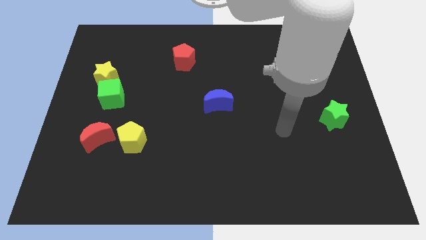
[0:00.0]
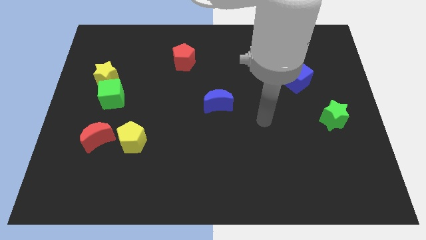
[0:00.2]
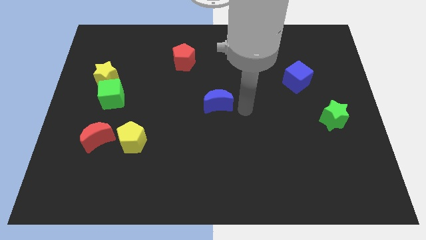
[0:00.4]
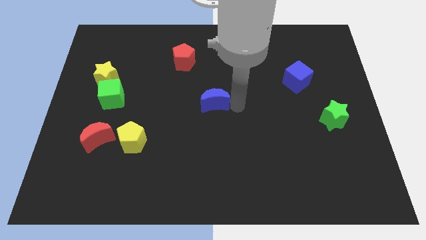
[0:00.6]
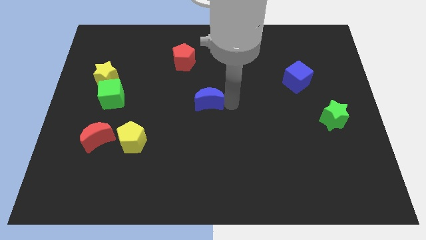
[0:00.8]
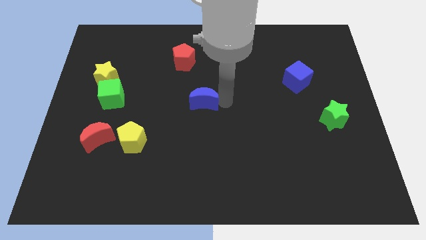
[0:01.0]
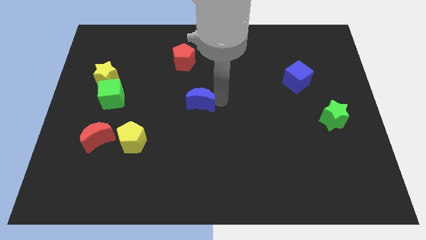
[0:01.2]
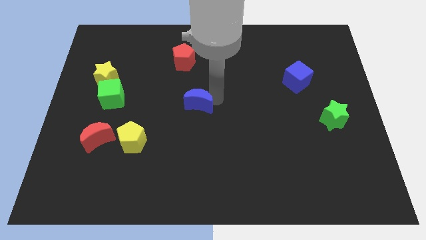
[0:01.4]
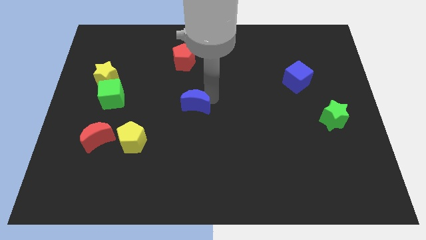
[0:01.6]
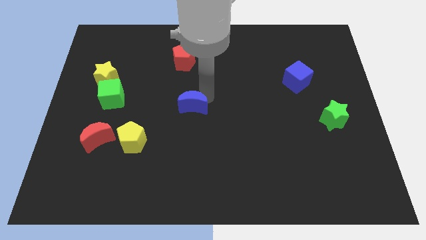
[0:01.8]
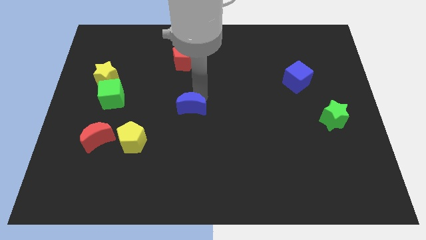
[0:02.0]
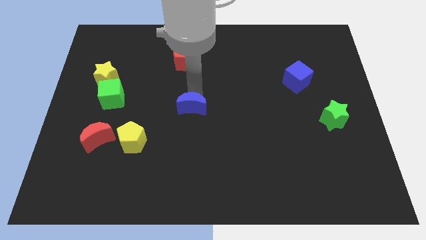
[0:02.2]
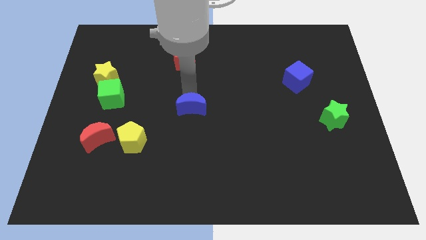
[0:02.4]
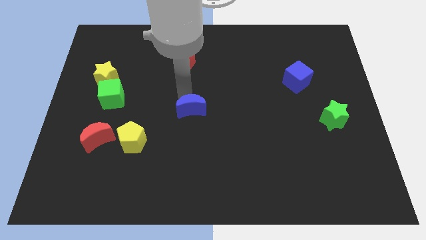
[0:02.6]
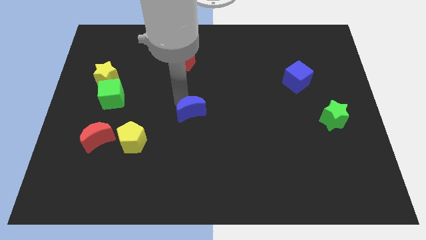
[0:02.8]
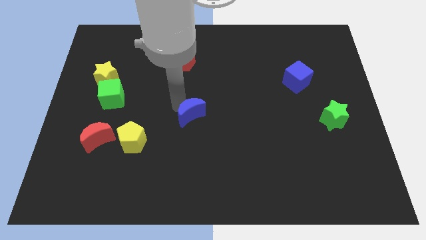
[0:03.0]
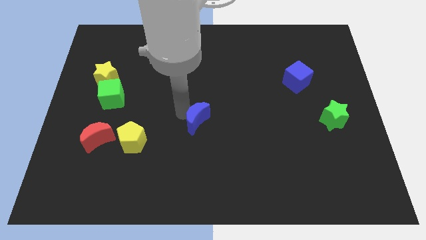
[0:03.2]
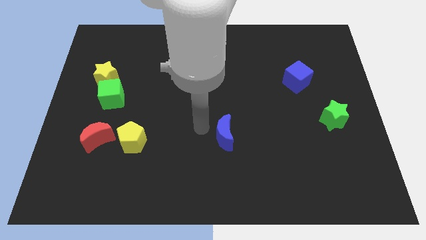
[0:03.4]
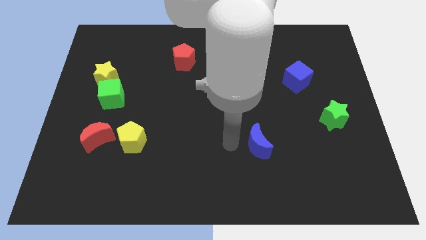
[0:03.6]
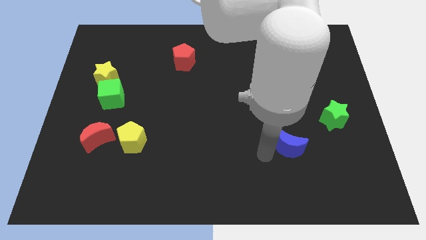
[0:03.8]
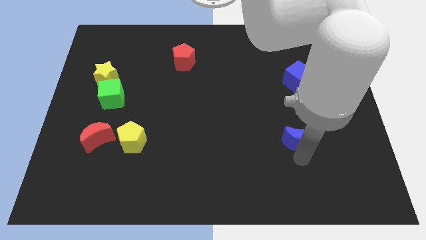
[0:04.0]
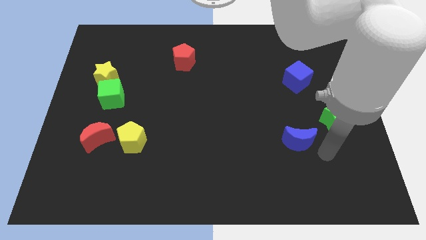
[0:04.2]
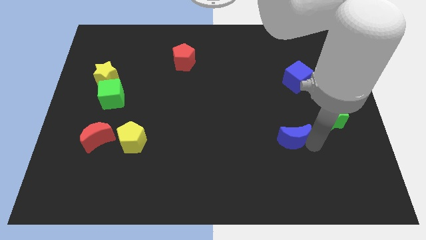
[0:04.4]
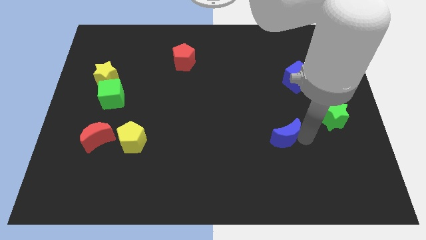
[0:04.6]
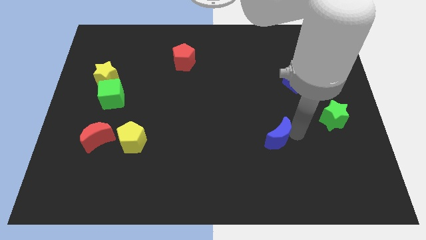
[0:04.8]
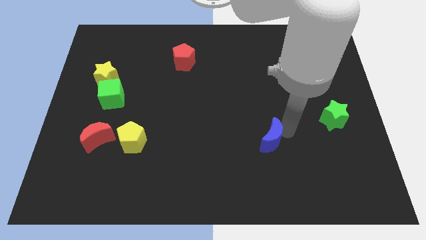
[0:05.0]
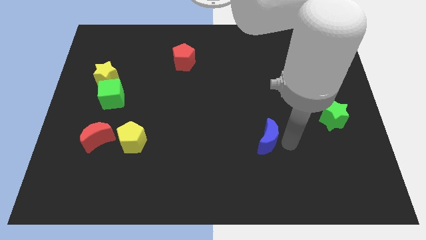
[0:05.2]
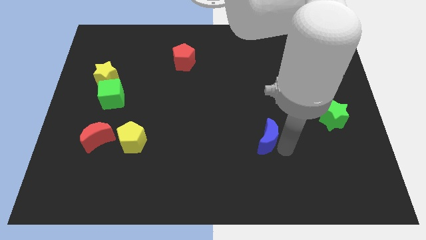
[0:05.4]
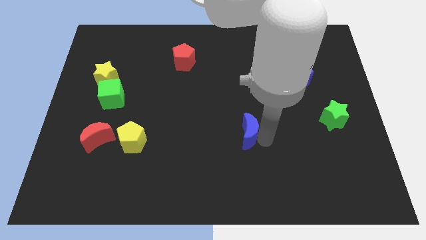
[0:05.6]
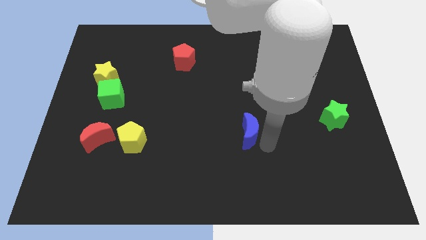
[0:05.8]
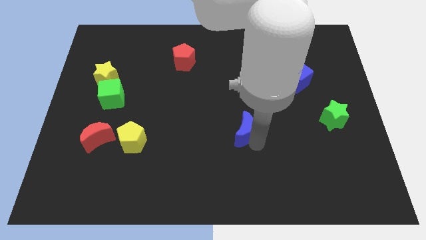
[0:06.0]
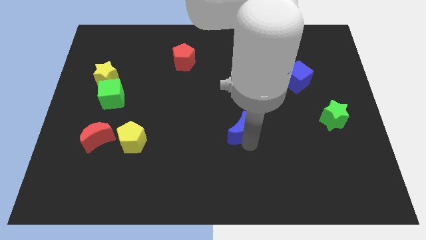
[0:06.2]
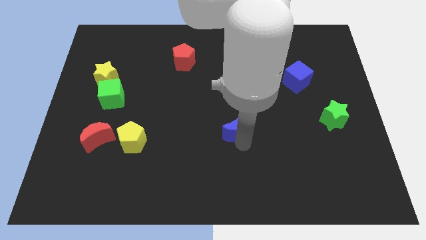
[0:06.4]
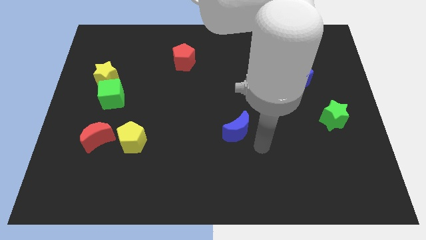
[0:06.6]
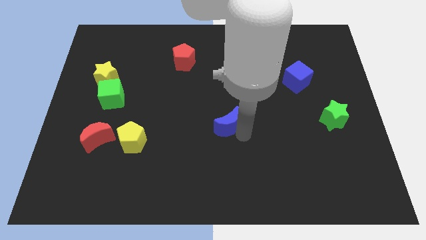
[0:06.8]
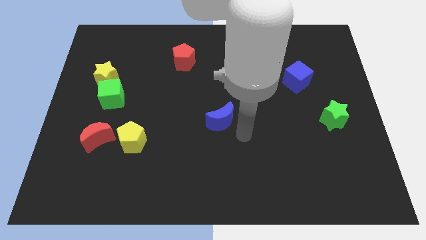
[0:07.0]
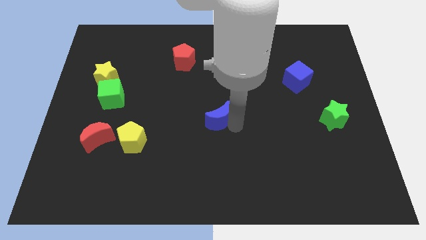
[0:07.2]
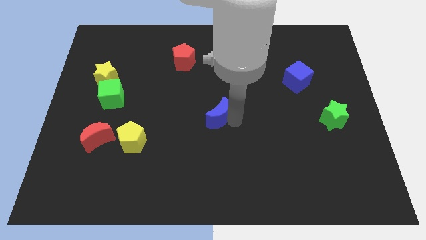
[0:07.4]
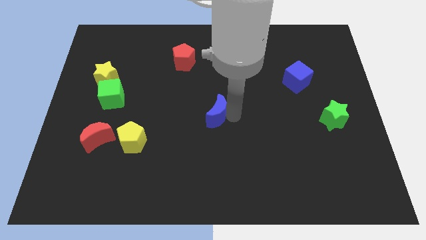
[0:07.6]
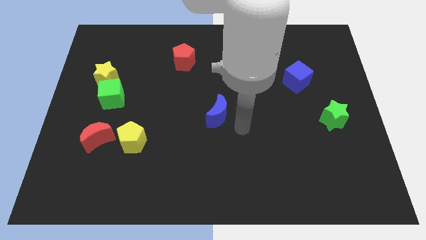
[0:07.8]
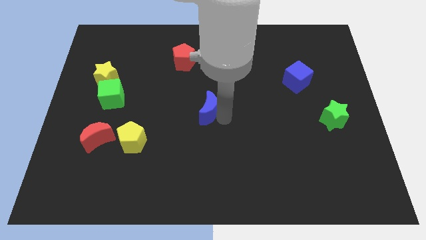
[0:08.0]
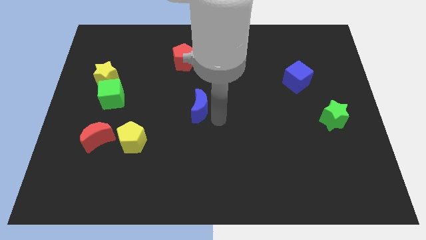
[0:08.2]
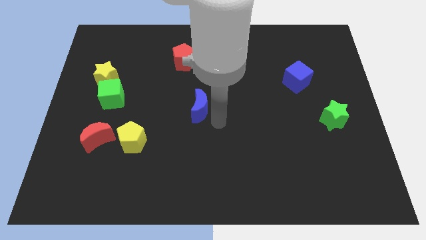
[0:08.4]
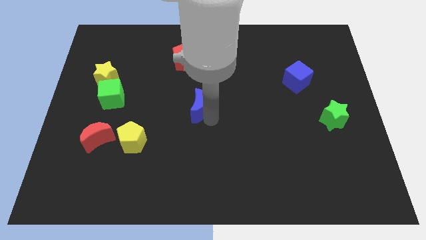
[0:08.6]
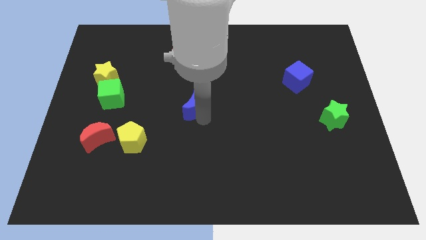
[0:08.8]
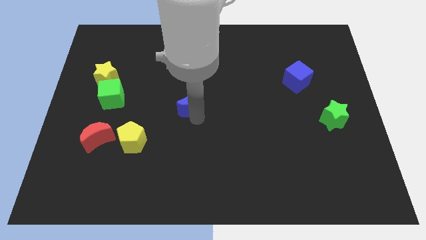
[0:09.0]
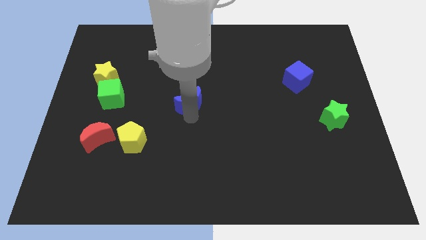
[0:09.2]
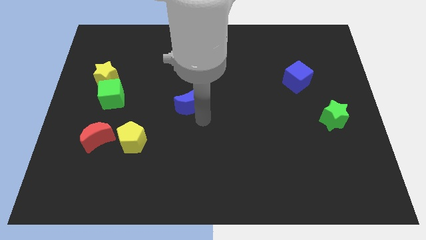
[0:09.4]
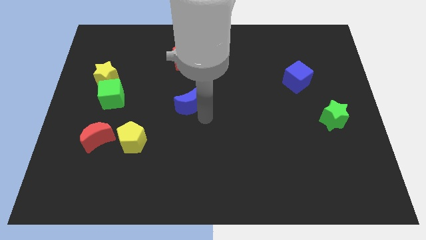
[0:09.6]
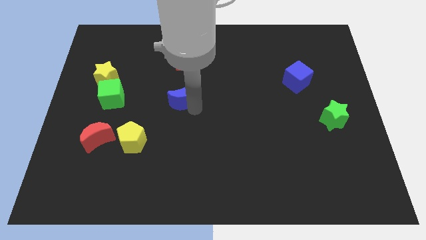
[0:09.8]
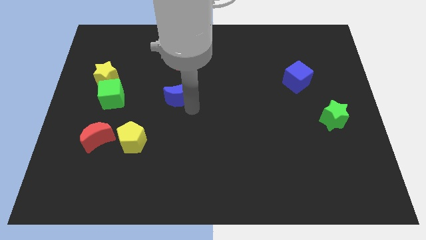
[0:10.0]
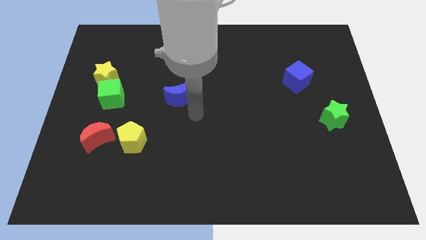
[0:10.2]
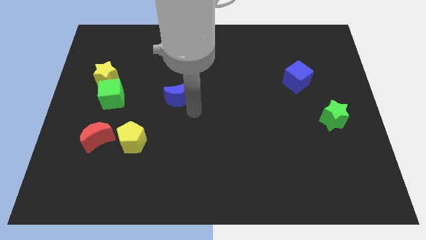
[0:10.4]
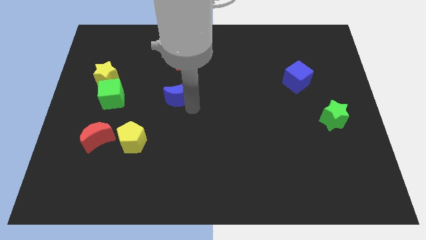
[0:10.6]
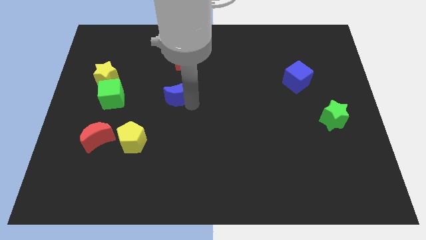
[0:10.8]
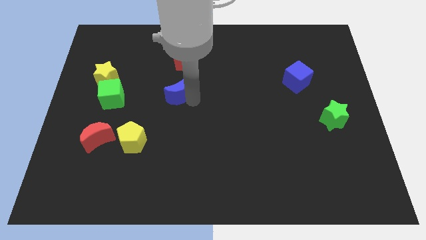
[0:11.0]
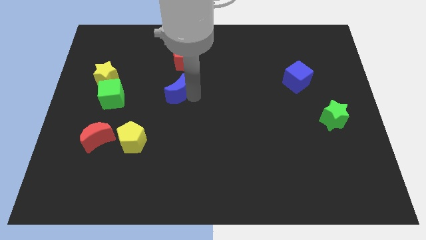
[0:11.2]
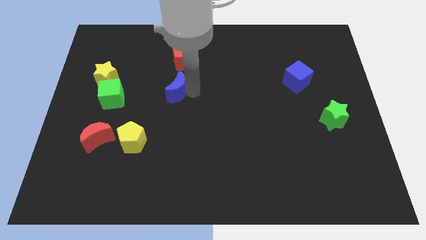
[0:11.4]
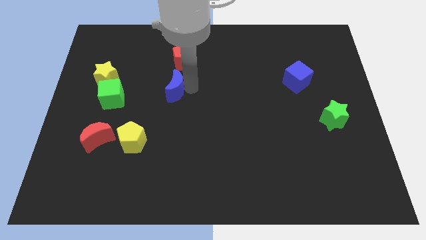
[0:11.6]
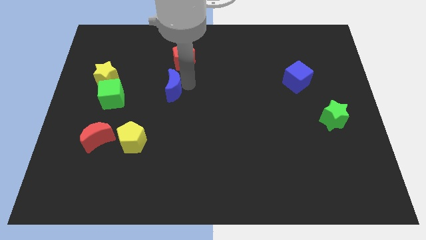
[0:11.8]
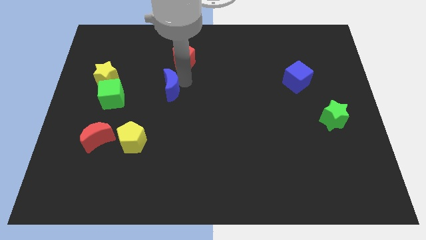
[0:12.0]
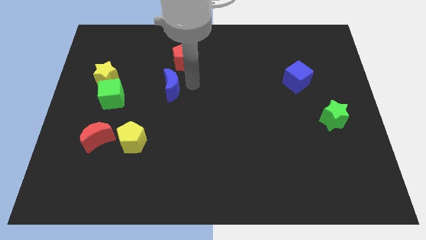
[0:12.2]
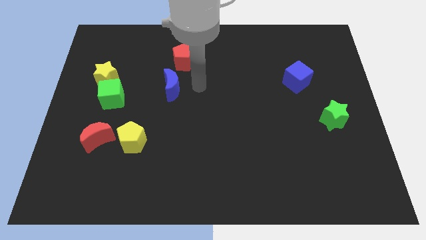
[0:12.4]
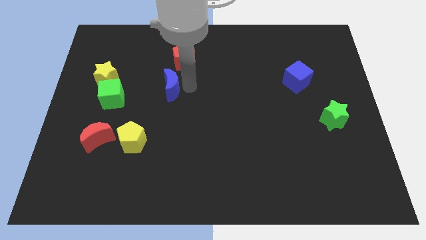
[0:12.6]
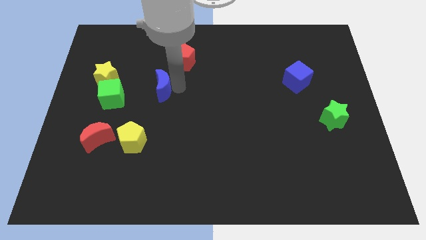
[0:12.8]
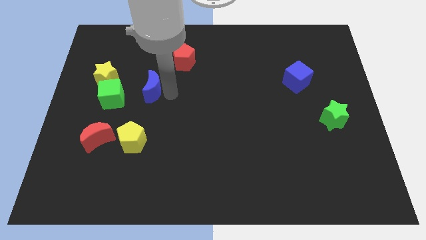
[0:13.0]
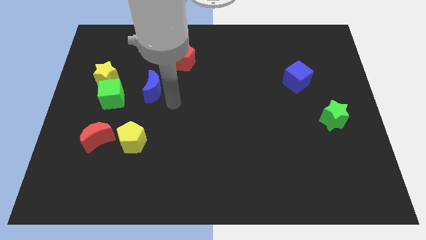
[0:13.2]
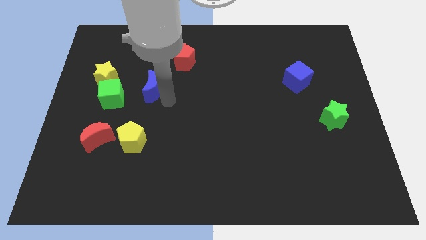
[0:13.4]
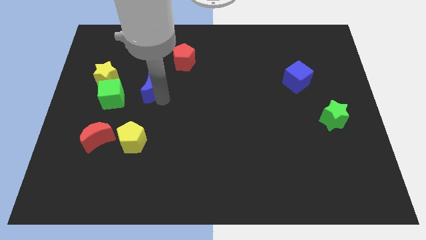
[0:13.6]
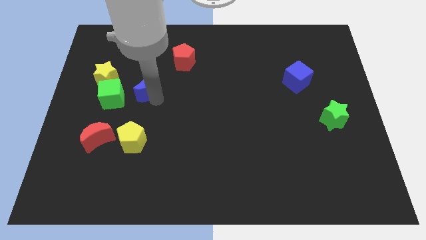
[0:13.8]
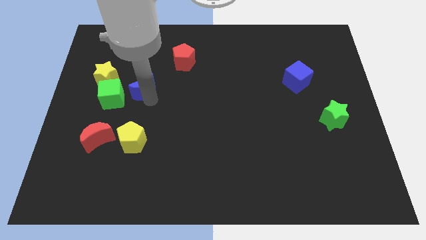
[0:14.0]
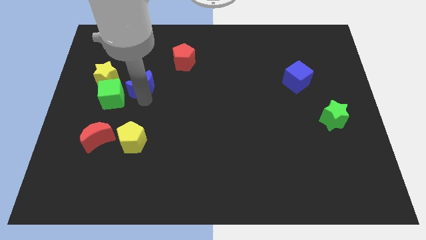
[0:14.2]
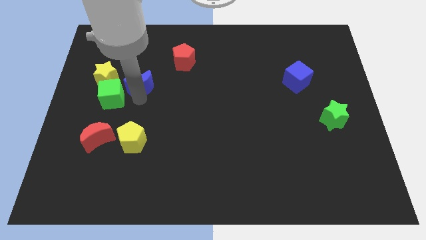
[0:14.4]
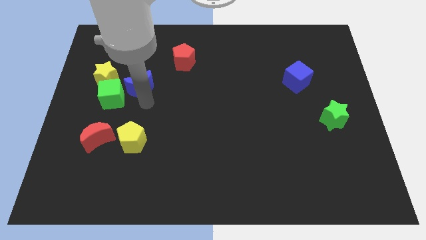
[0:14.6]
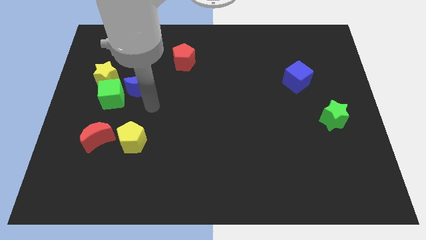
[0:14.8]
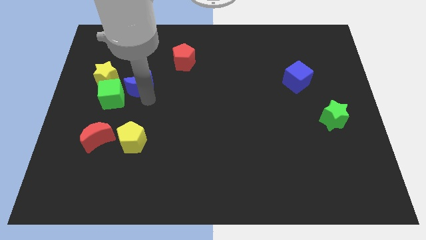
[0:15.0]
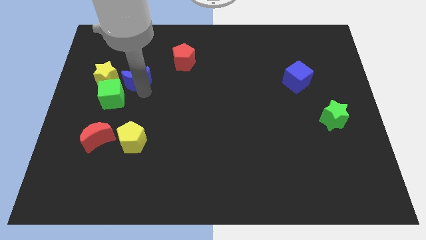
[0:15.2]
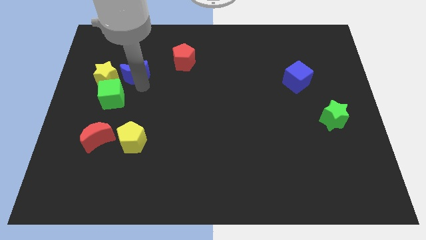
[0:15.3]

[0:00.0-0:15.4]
push the blue moon above the green cube
